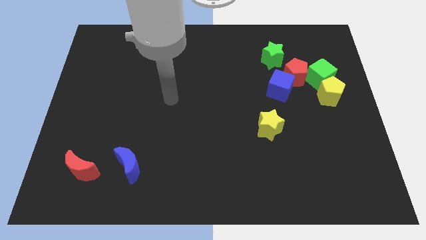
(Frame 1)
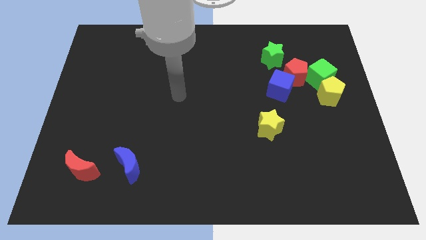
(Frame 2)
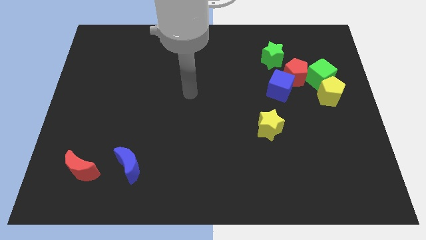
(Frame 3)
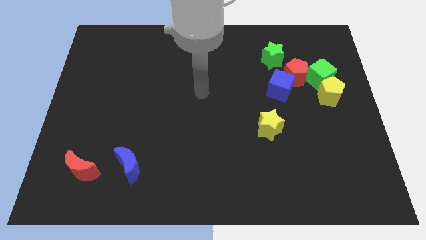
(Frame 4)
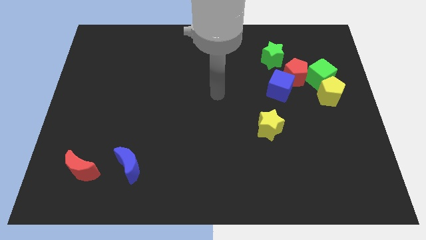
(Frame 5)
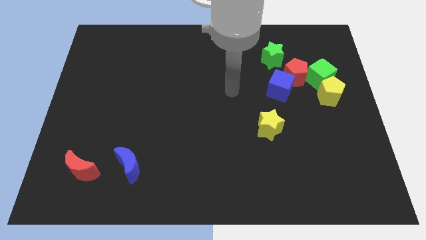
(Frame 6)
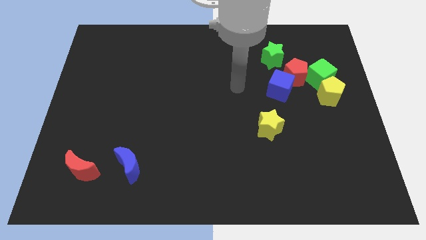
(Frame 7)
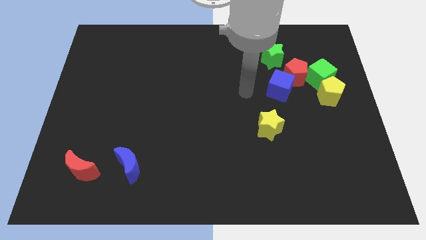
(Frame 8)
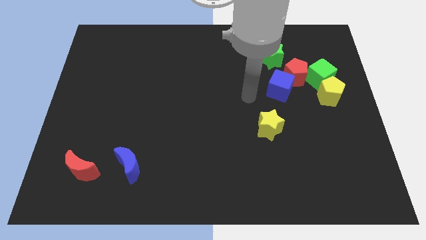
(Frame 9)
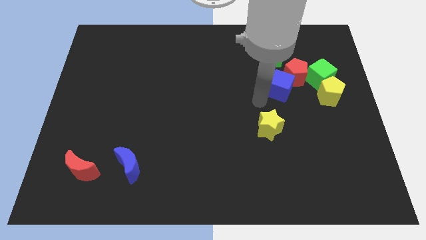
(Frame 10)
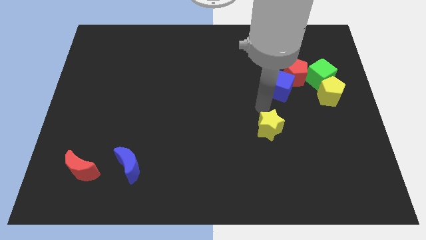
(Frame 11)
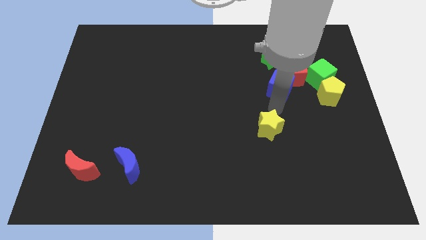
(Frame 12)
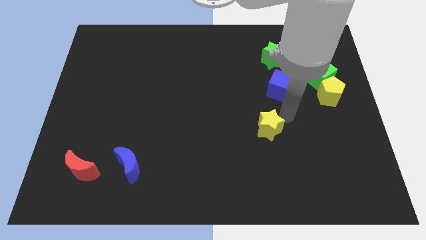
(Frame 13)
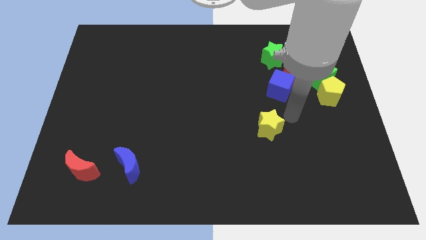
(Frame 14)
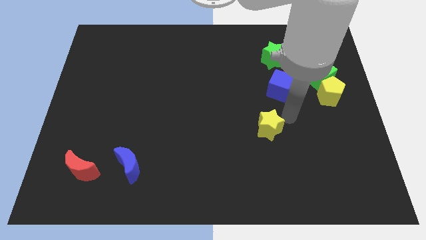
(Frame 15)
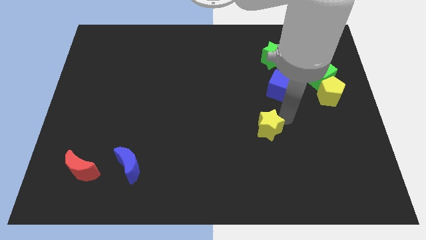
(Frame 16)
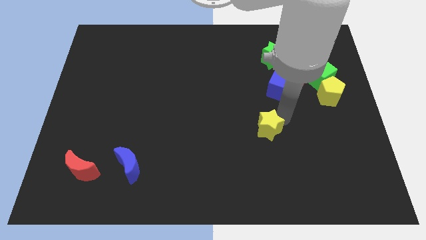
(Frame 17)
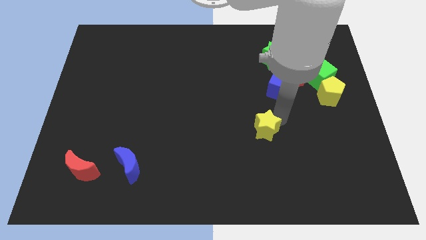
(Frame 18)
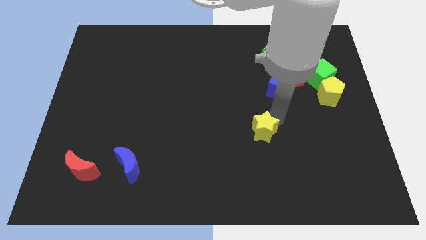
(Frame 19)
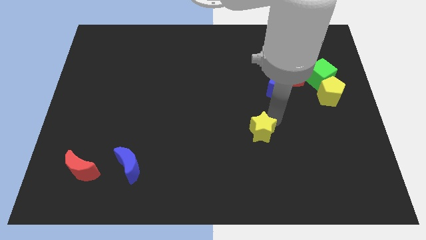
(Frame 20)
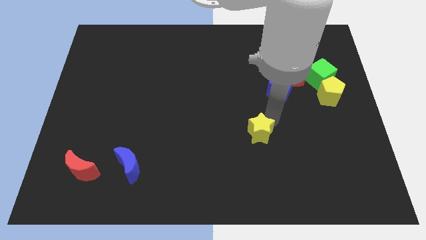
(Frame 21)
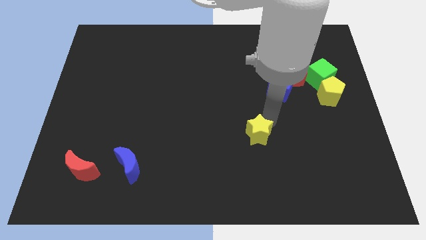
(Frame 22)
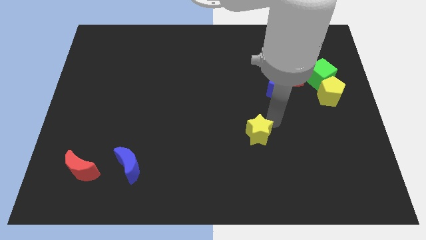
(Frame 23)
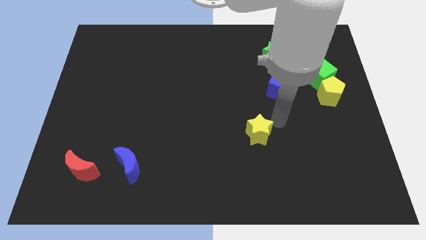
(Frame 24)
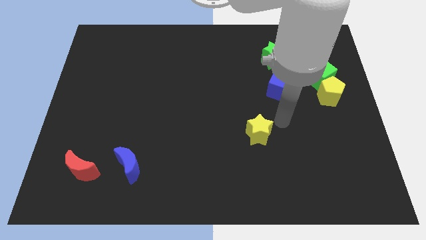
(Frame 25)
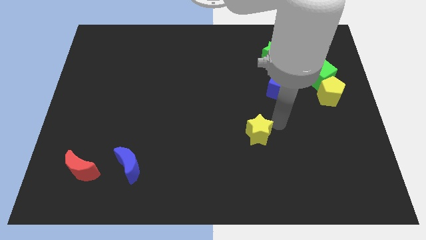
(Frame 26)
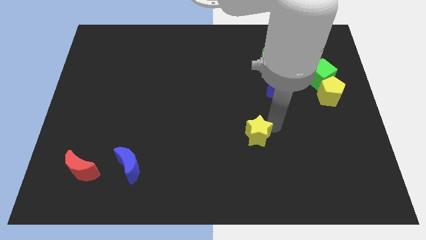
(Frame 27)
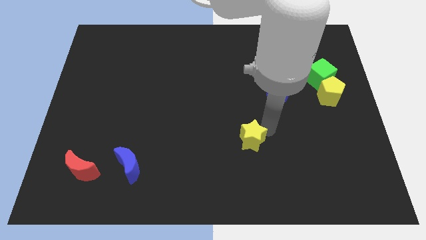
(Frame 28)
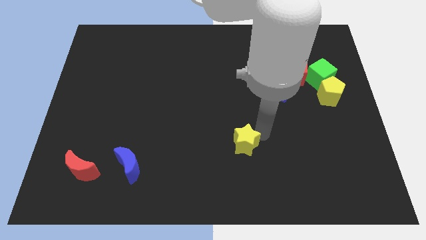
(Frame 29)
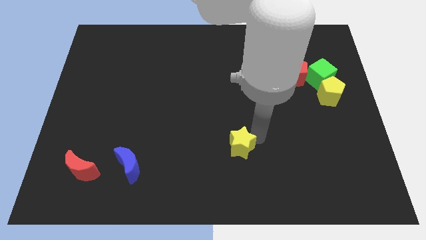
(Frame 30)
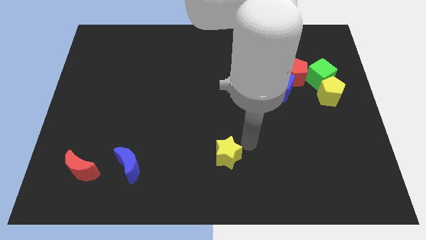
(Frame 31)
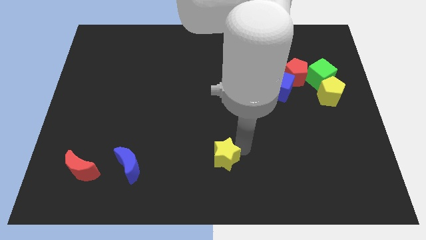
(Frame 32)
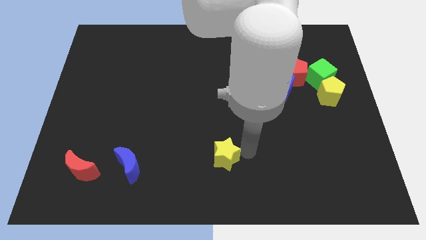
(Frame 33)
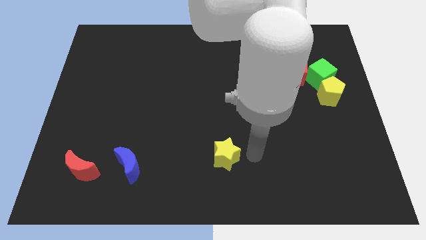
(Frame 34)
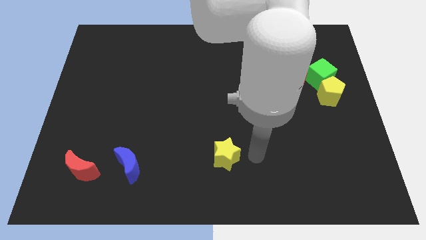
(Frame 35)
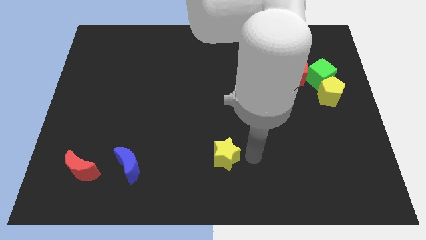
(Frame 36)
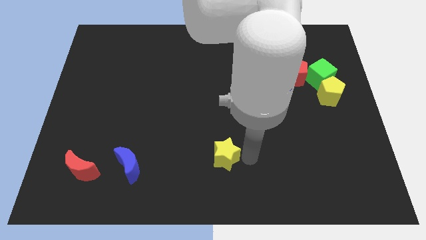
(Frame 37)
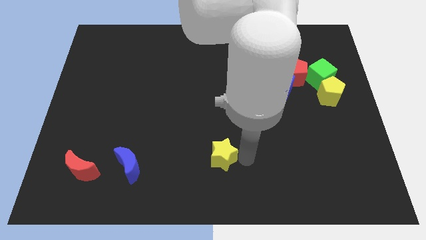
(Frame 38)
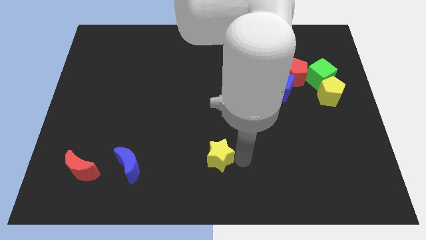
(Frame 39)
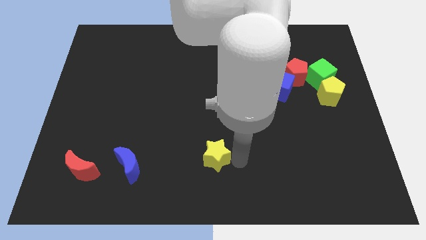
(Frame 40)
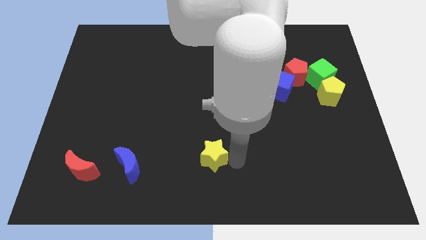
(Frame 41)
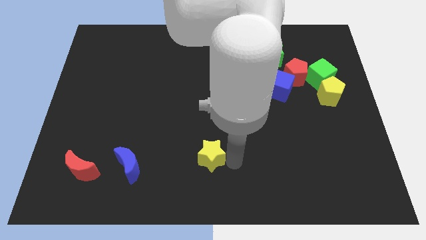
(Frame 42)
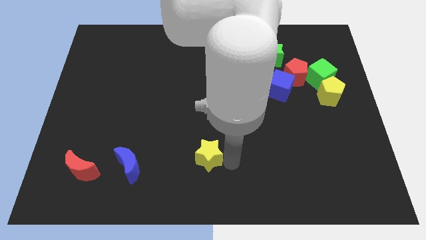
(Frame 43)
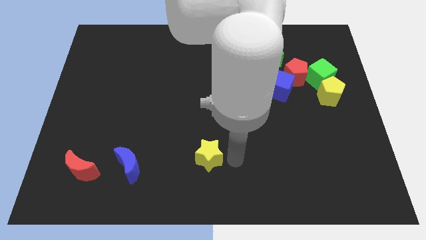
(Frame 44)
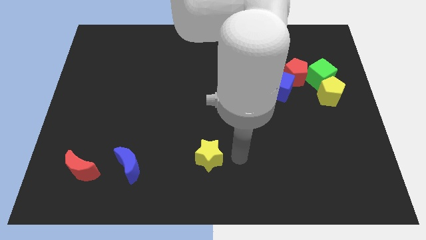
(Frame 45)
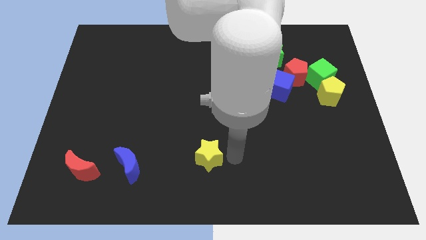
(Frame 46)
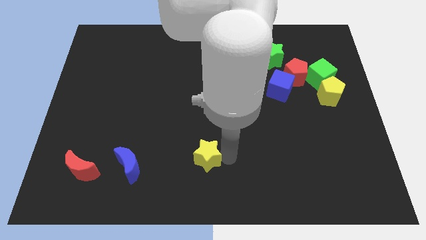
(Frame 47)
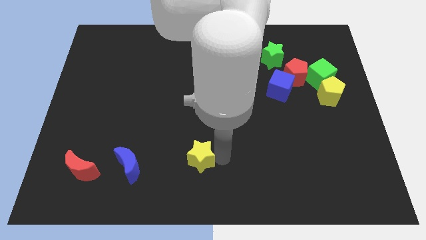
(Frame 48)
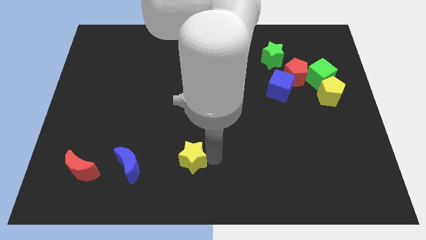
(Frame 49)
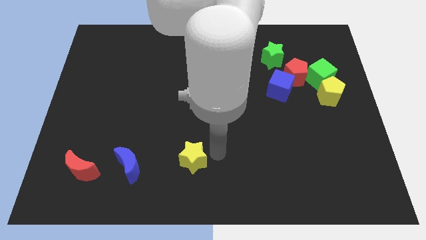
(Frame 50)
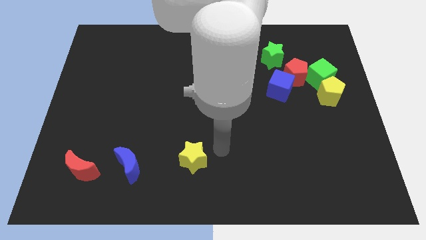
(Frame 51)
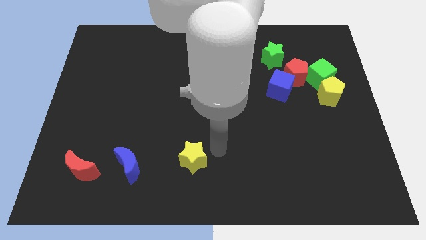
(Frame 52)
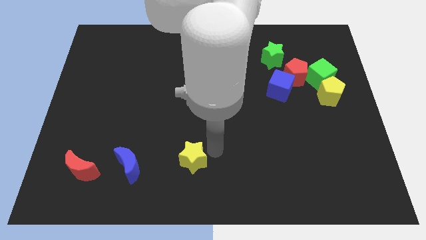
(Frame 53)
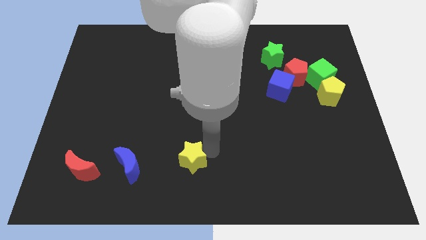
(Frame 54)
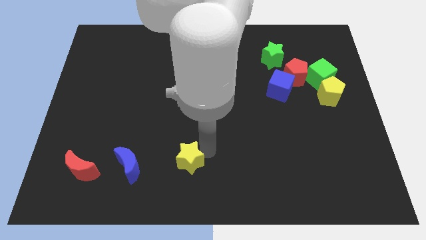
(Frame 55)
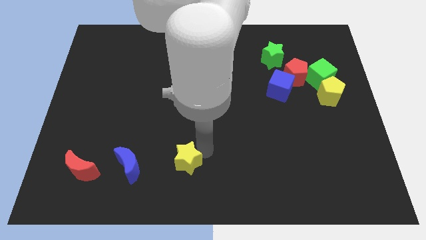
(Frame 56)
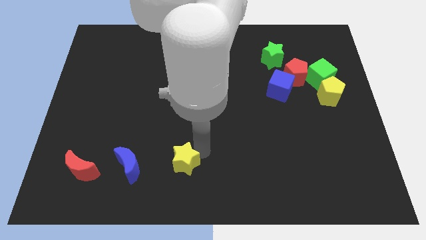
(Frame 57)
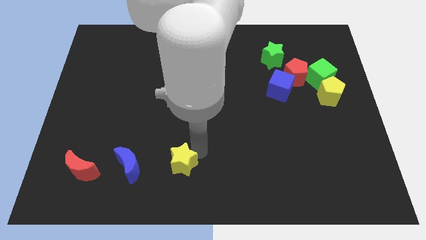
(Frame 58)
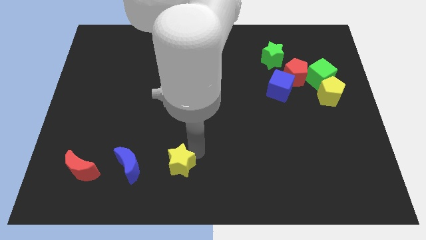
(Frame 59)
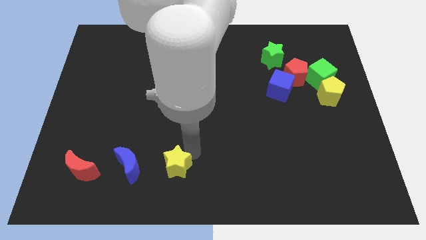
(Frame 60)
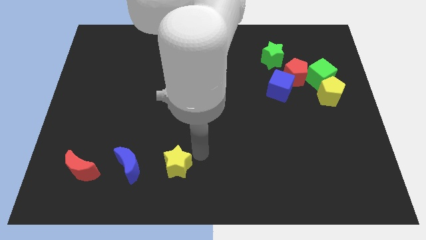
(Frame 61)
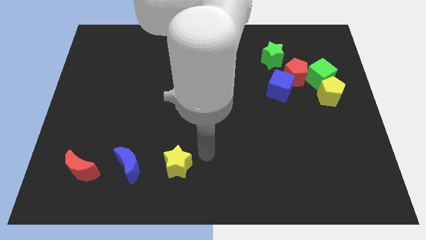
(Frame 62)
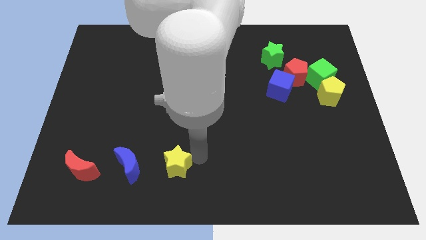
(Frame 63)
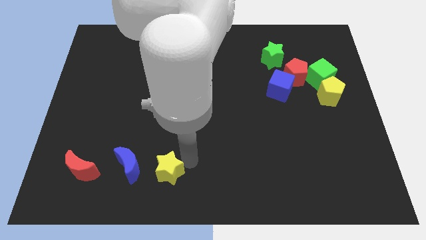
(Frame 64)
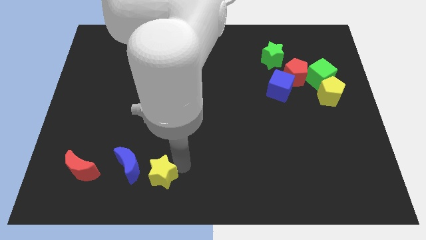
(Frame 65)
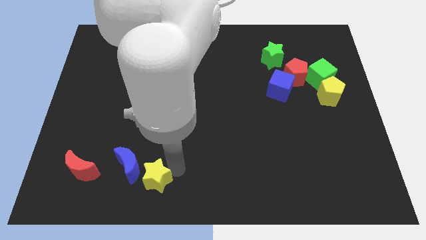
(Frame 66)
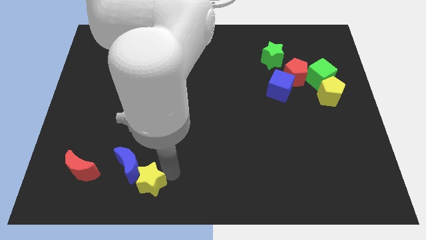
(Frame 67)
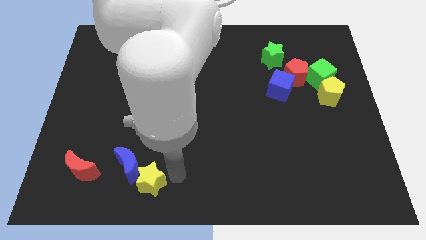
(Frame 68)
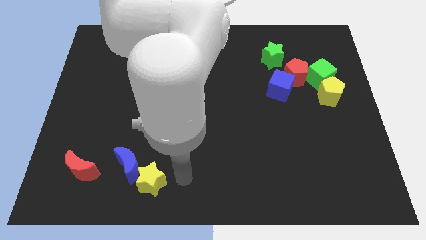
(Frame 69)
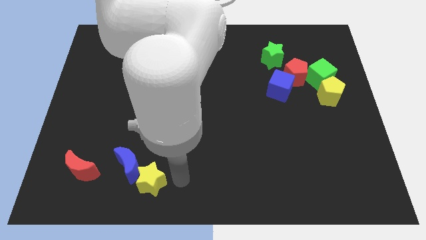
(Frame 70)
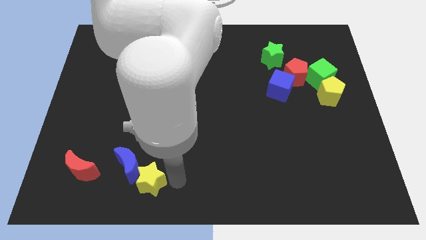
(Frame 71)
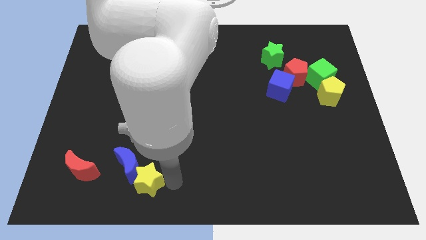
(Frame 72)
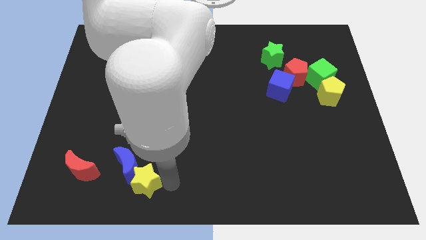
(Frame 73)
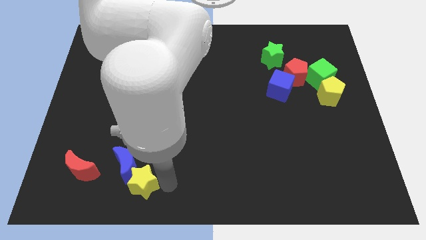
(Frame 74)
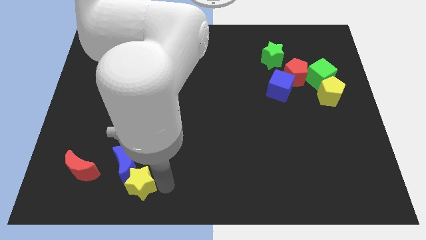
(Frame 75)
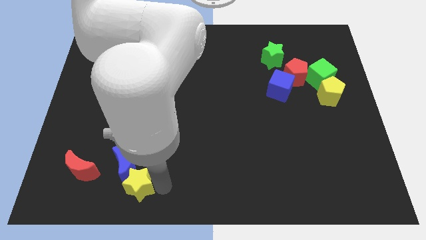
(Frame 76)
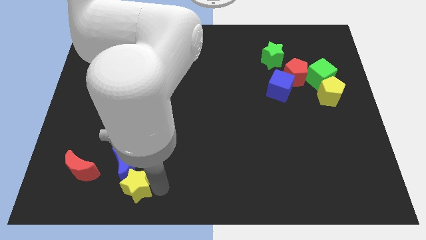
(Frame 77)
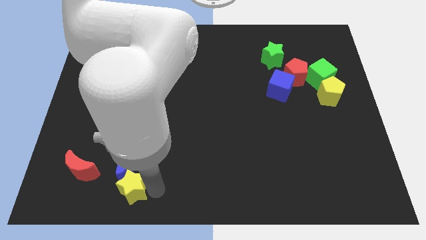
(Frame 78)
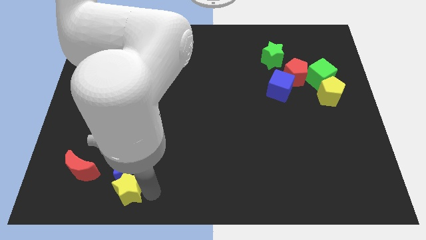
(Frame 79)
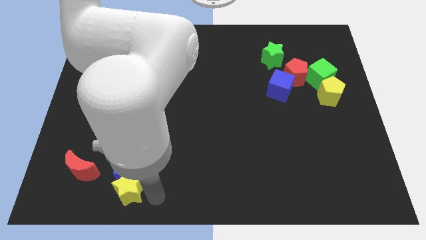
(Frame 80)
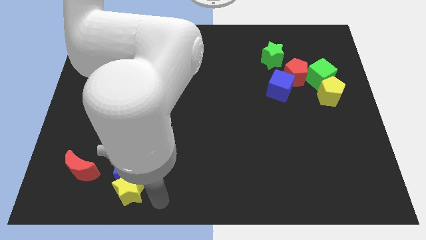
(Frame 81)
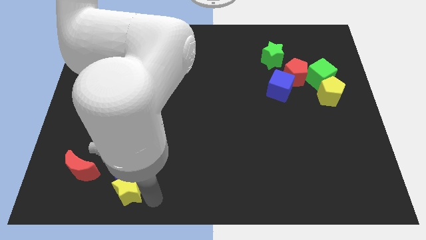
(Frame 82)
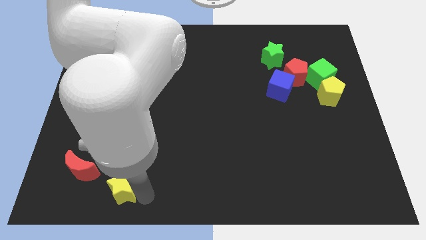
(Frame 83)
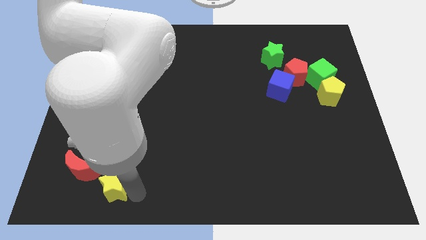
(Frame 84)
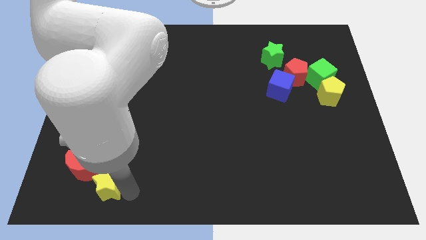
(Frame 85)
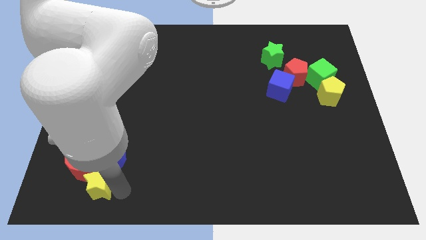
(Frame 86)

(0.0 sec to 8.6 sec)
push the yellow star towards the red moon
